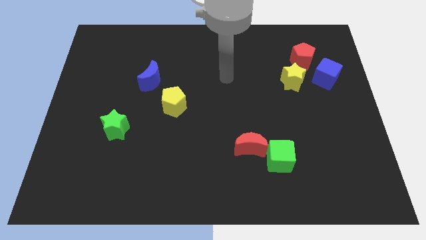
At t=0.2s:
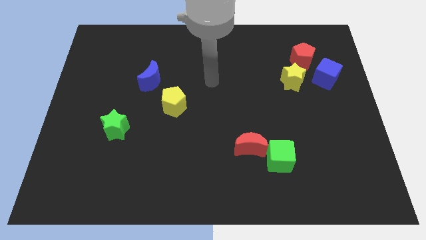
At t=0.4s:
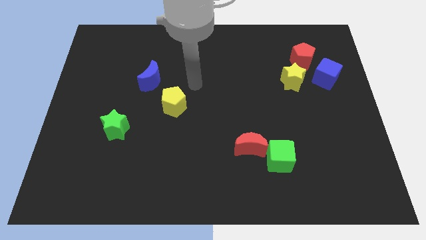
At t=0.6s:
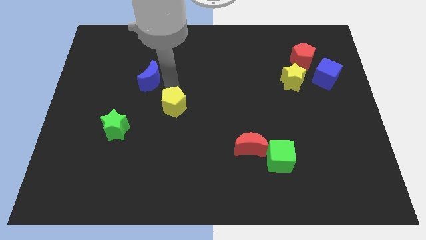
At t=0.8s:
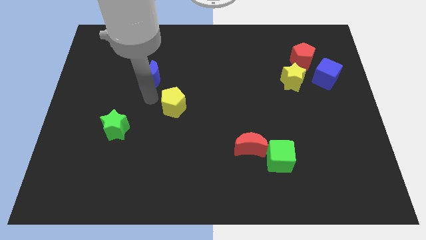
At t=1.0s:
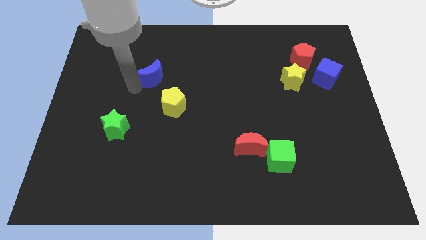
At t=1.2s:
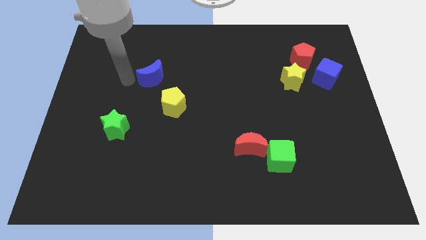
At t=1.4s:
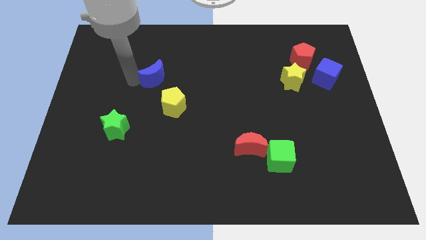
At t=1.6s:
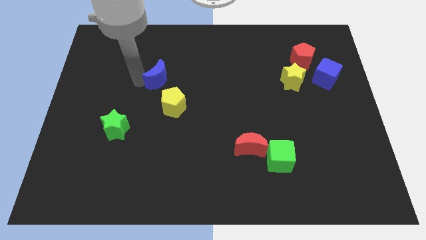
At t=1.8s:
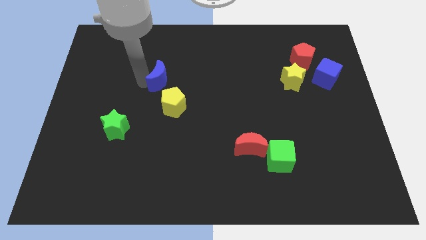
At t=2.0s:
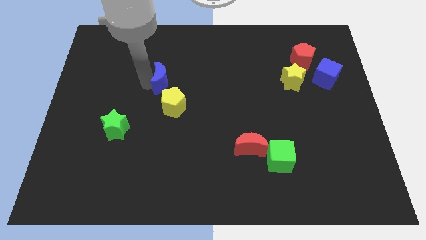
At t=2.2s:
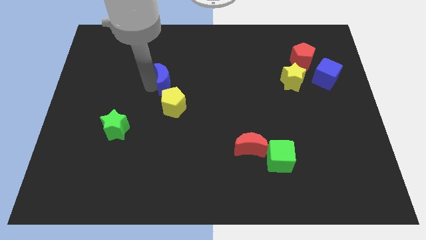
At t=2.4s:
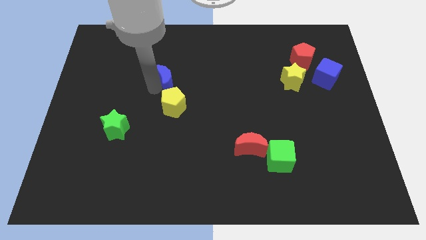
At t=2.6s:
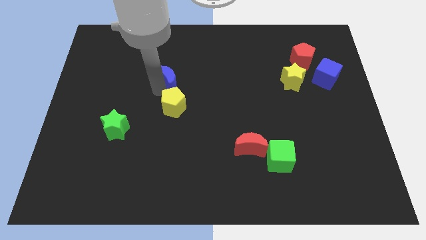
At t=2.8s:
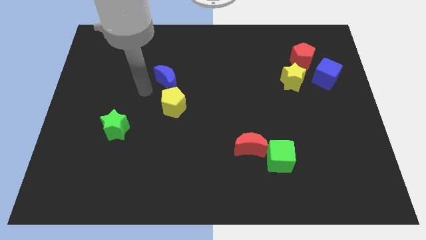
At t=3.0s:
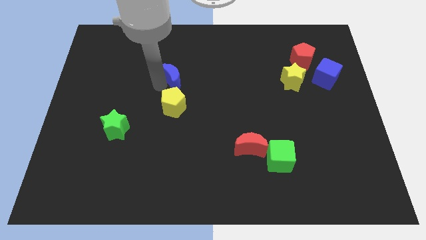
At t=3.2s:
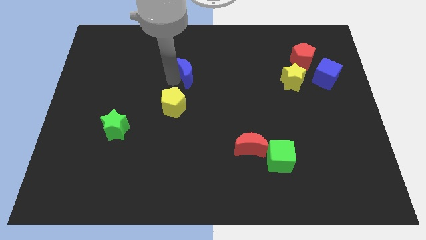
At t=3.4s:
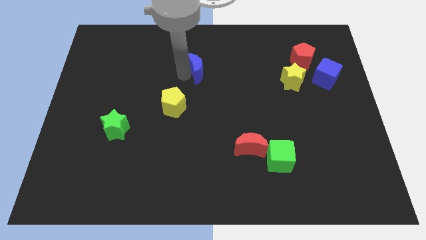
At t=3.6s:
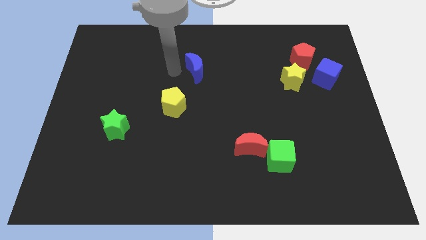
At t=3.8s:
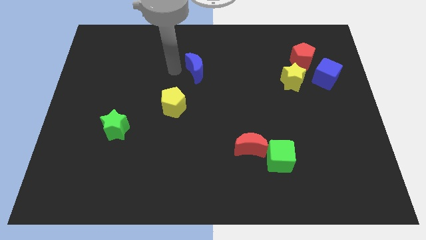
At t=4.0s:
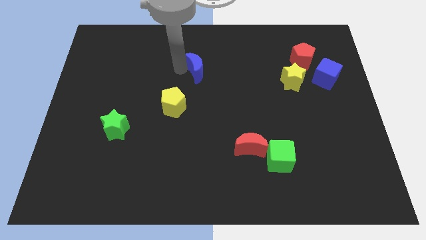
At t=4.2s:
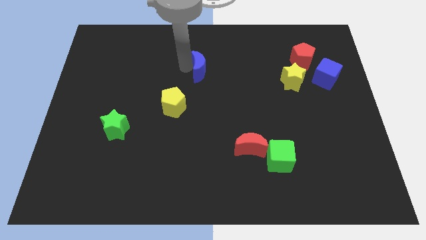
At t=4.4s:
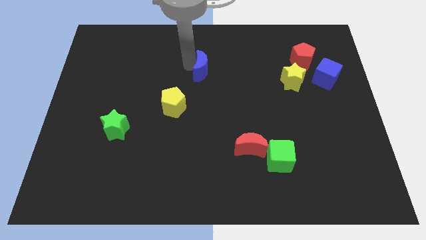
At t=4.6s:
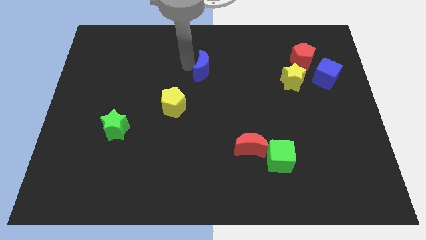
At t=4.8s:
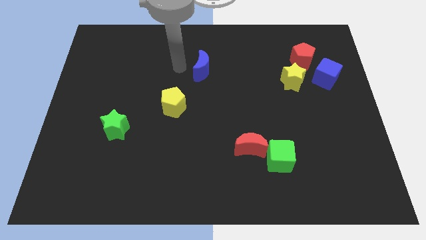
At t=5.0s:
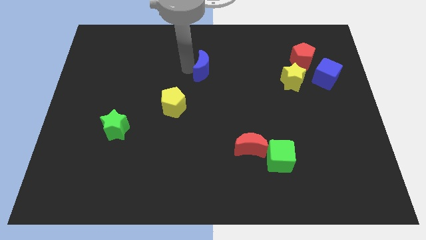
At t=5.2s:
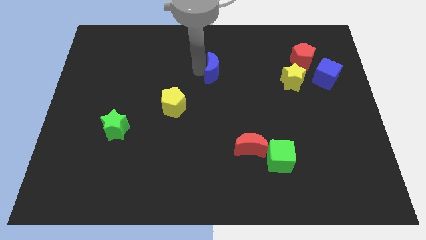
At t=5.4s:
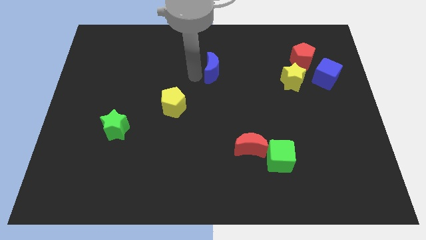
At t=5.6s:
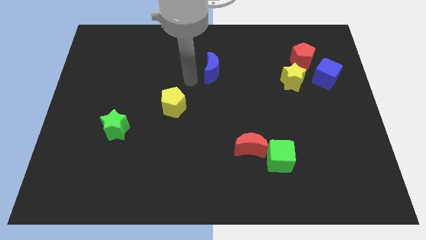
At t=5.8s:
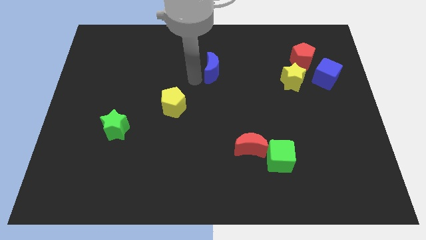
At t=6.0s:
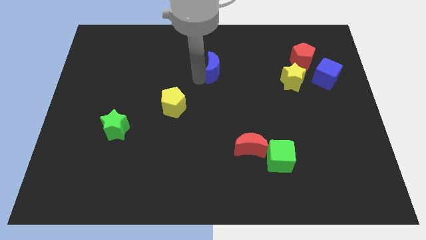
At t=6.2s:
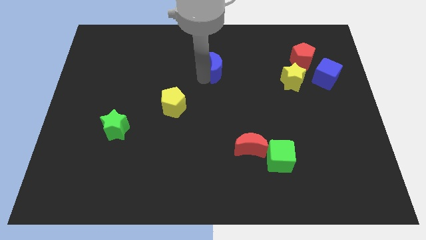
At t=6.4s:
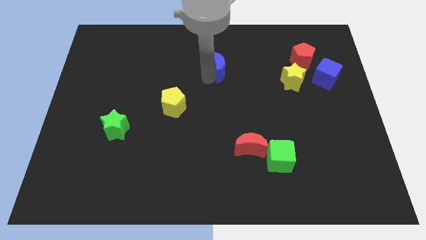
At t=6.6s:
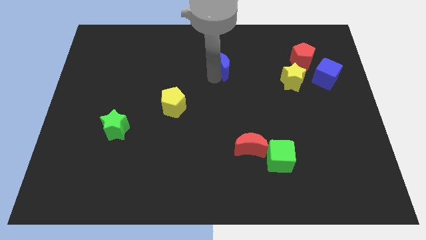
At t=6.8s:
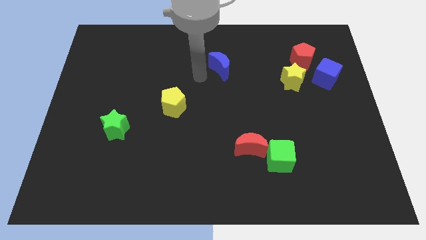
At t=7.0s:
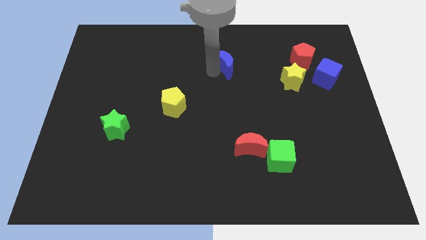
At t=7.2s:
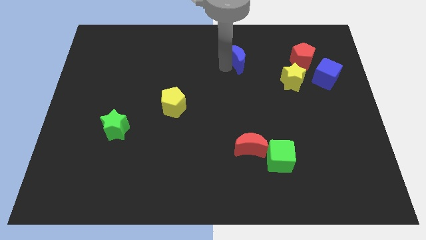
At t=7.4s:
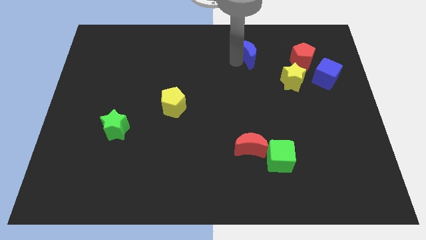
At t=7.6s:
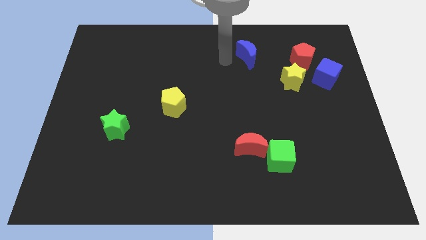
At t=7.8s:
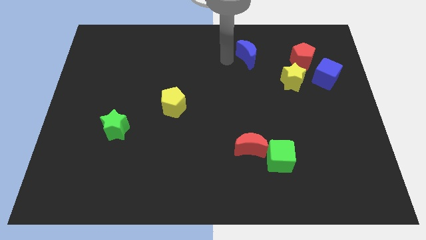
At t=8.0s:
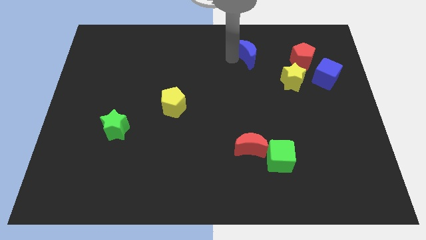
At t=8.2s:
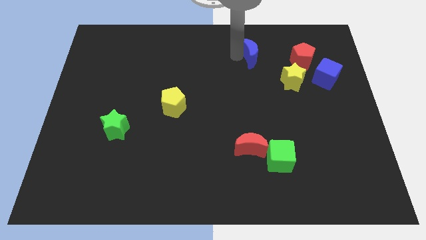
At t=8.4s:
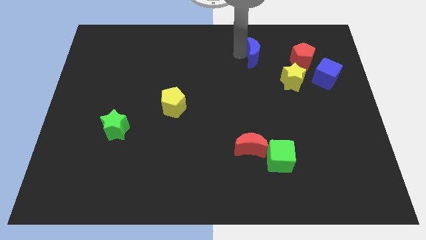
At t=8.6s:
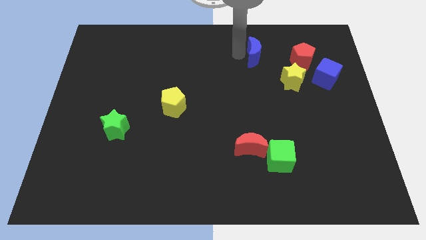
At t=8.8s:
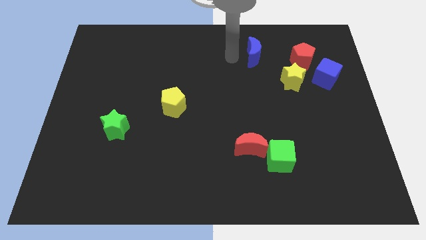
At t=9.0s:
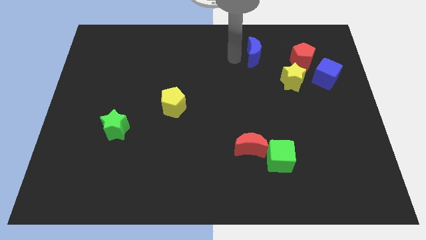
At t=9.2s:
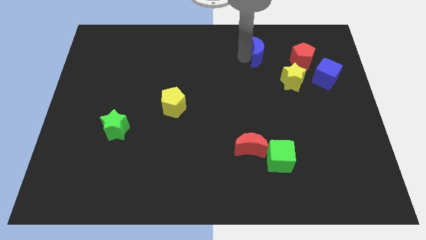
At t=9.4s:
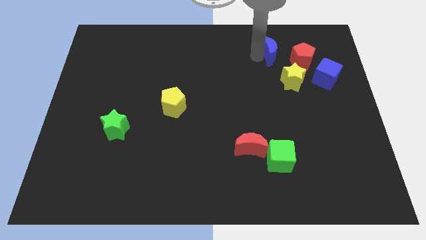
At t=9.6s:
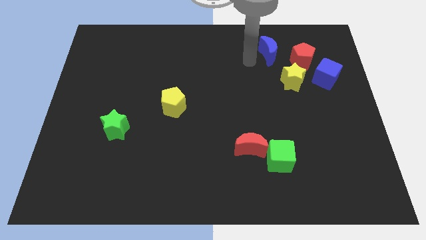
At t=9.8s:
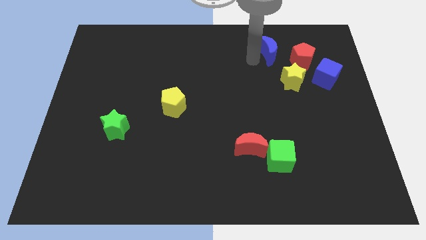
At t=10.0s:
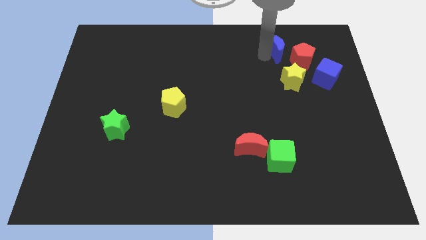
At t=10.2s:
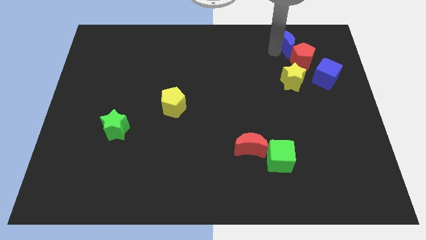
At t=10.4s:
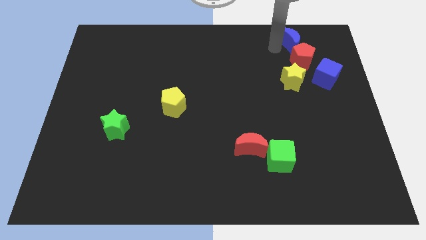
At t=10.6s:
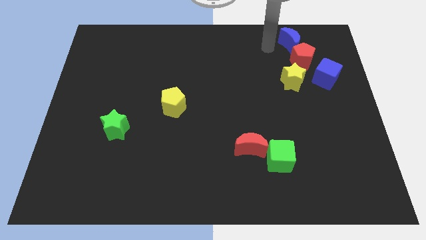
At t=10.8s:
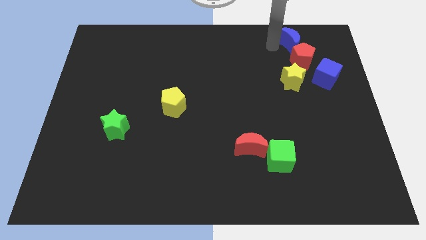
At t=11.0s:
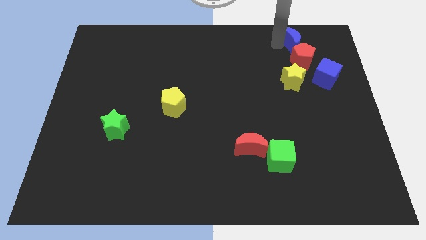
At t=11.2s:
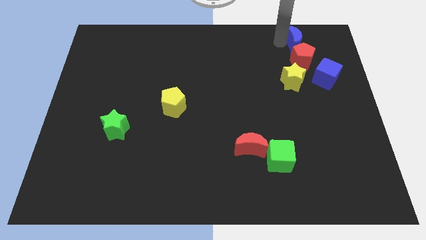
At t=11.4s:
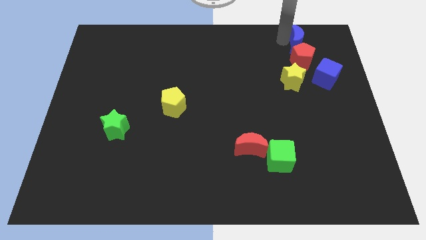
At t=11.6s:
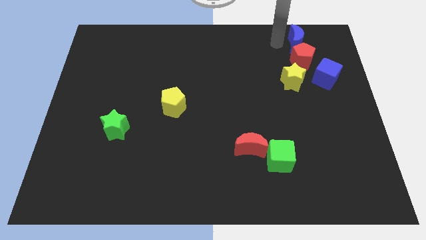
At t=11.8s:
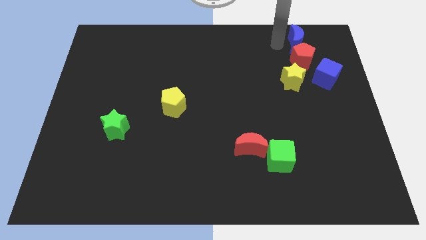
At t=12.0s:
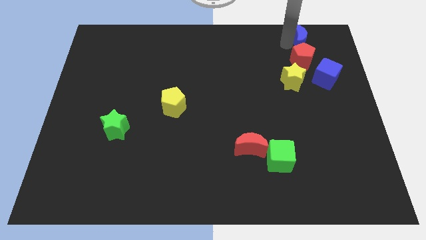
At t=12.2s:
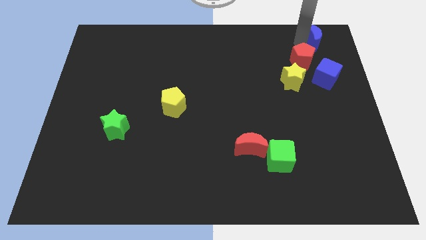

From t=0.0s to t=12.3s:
move the blue moon to the upper right corner
